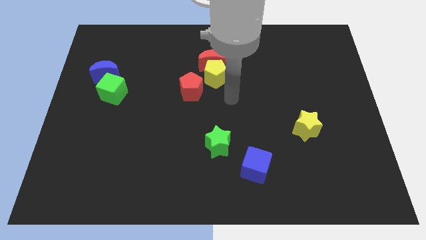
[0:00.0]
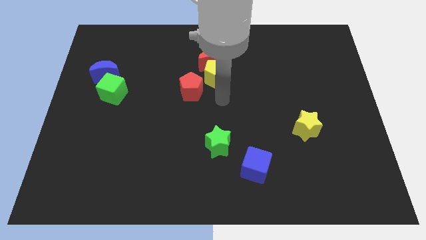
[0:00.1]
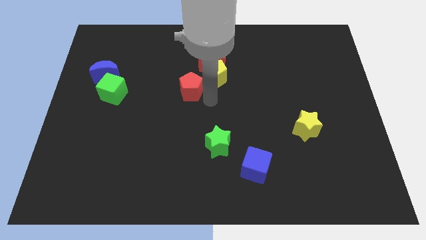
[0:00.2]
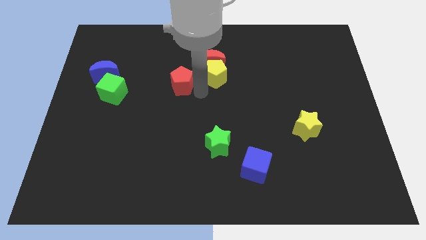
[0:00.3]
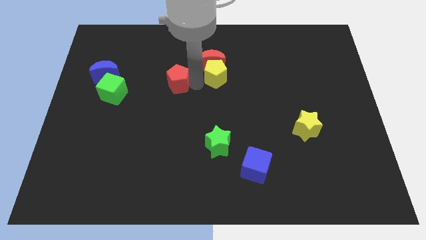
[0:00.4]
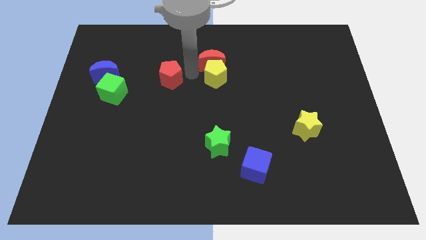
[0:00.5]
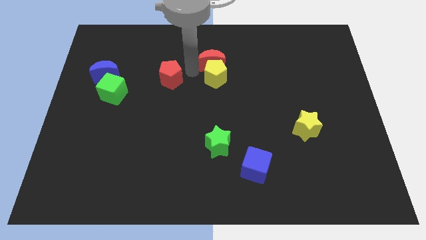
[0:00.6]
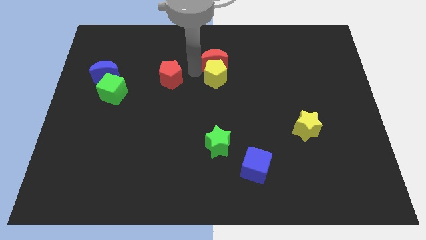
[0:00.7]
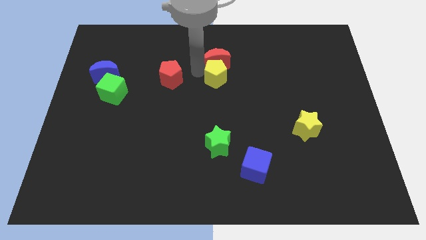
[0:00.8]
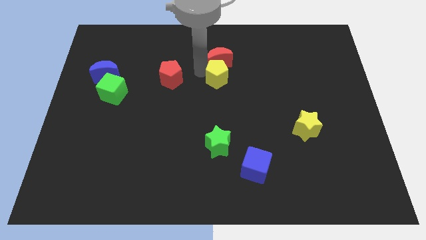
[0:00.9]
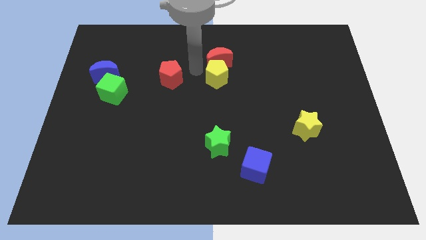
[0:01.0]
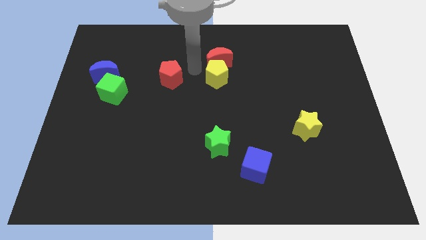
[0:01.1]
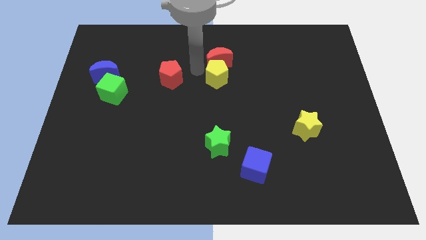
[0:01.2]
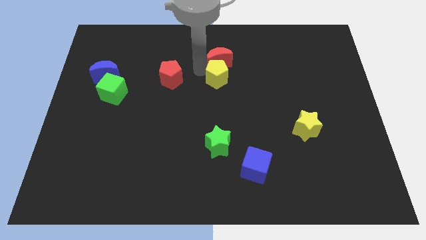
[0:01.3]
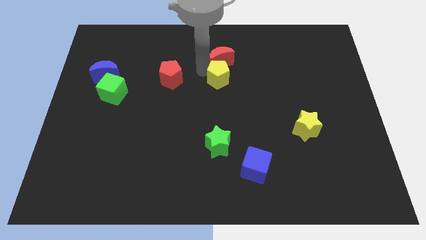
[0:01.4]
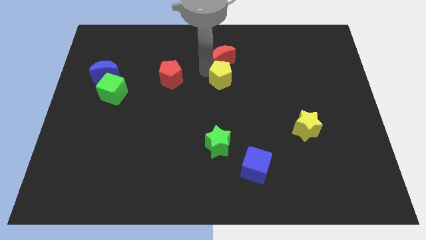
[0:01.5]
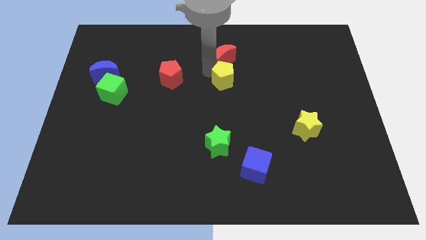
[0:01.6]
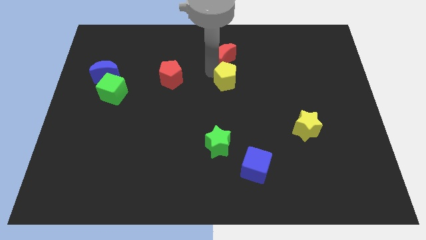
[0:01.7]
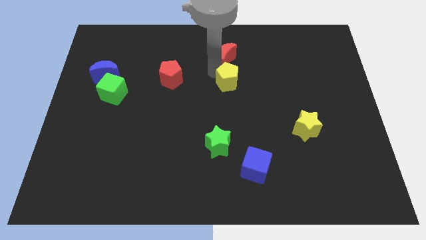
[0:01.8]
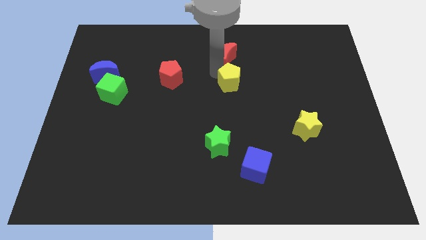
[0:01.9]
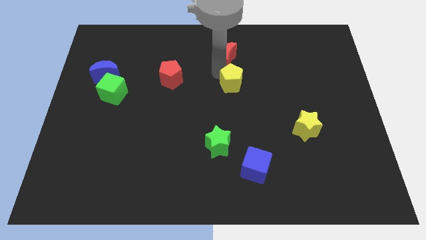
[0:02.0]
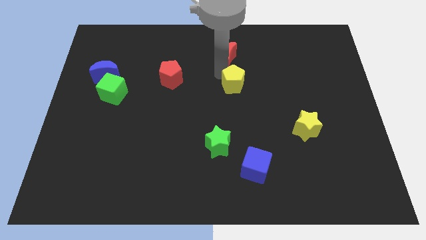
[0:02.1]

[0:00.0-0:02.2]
move the yellow pentagon away from the red moon and red pentagon

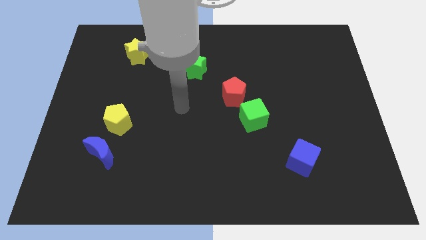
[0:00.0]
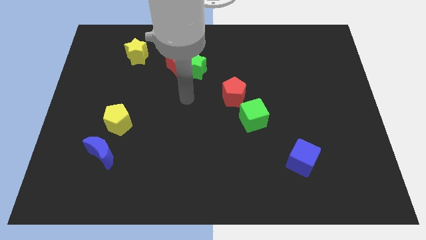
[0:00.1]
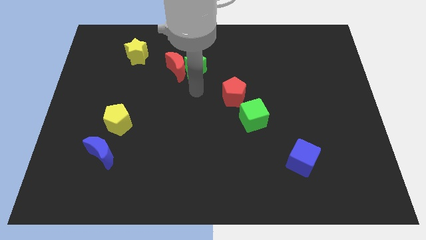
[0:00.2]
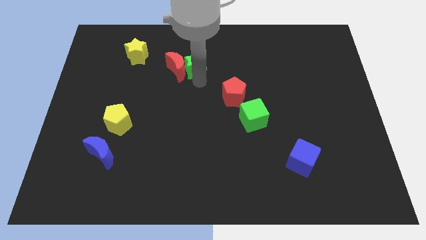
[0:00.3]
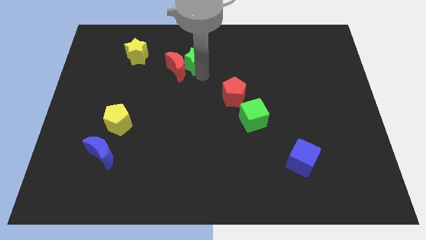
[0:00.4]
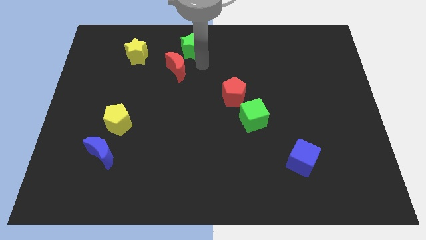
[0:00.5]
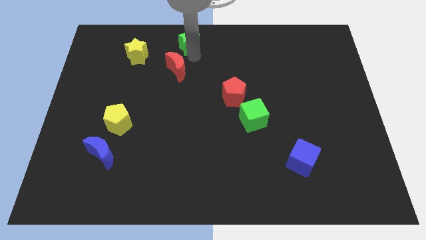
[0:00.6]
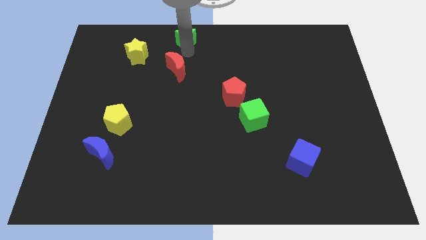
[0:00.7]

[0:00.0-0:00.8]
pull the red moon apart from the green star

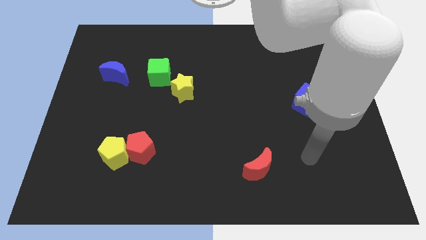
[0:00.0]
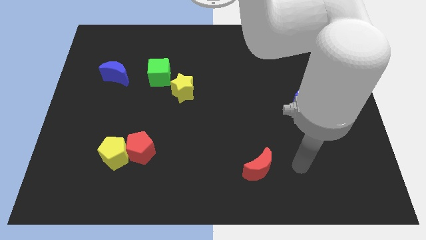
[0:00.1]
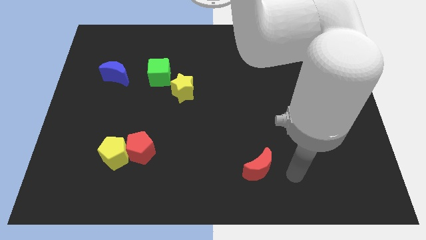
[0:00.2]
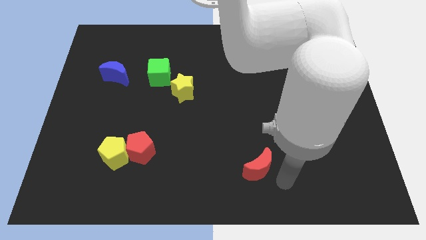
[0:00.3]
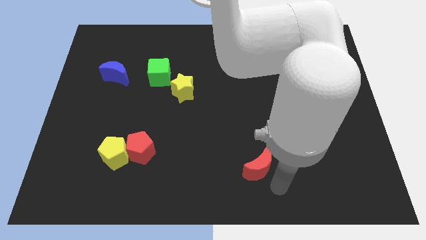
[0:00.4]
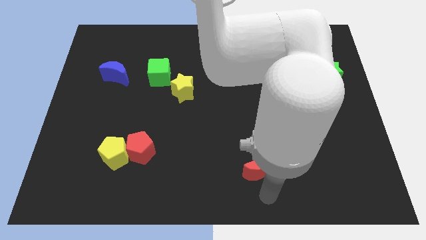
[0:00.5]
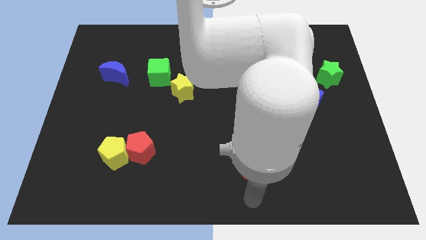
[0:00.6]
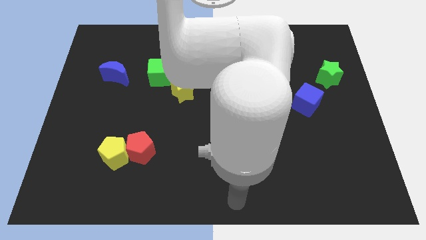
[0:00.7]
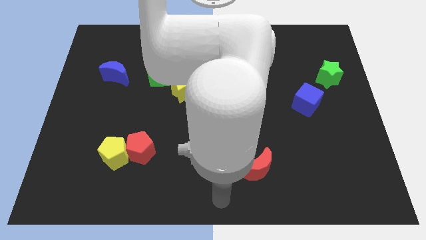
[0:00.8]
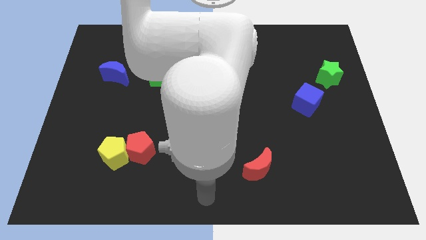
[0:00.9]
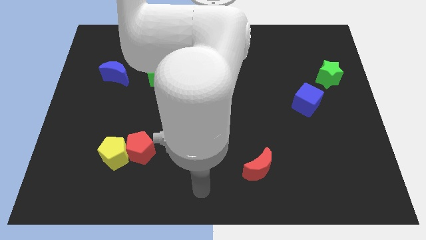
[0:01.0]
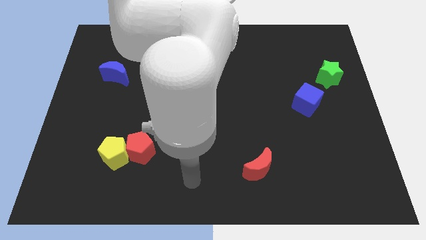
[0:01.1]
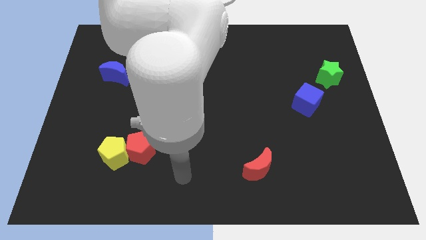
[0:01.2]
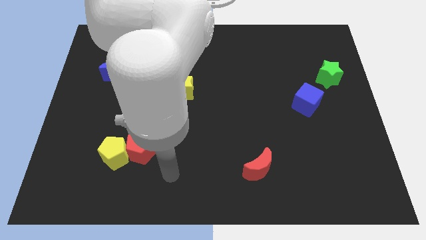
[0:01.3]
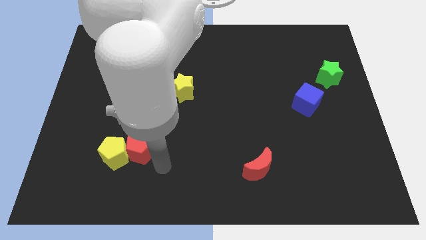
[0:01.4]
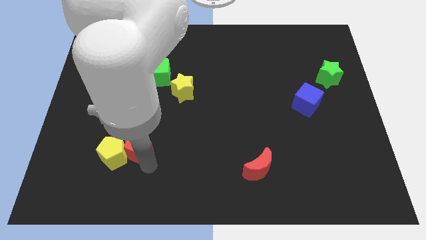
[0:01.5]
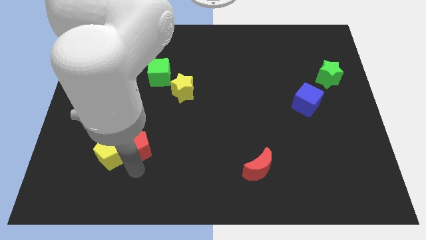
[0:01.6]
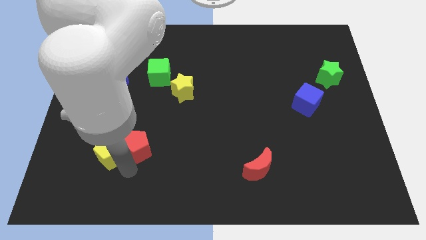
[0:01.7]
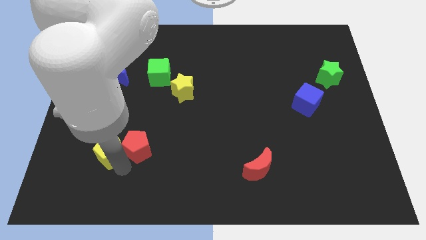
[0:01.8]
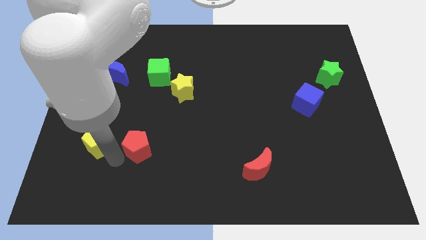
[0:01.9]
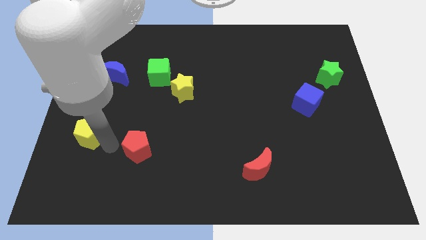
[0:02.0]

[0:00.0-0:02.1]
separate the red pentagon from the yellow pentagon

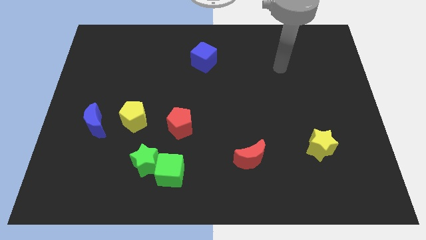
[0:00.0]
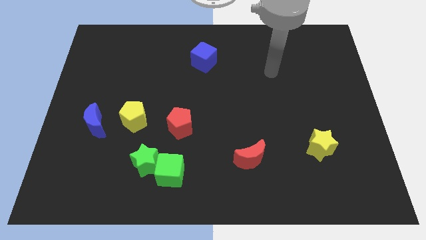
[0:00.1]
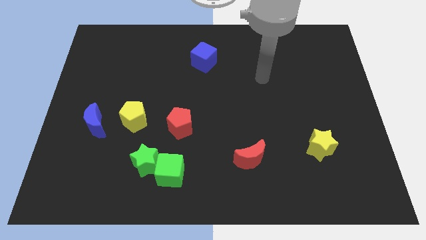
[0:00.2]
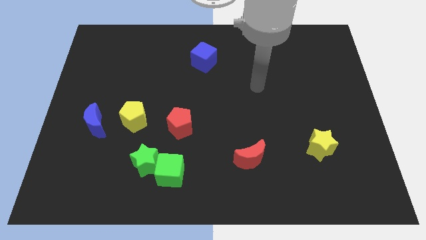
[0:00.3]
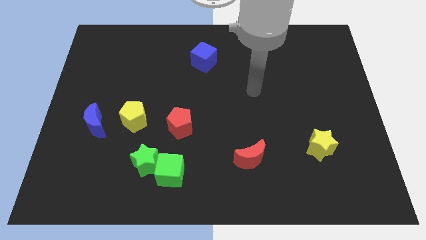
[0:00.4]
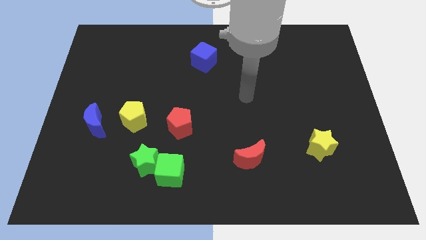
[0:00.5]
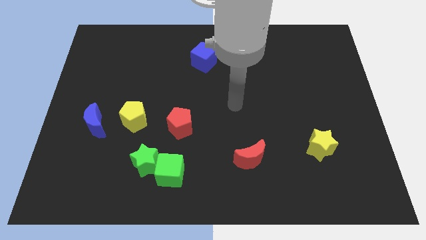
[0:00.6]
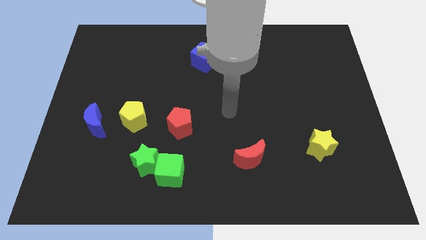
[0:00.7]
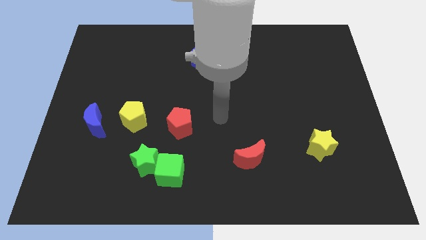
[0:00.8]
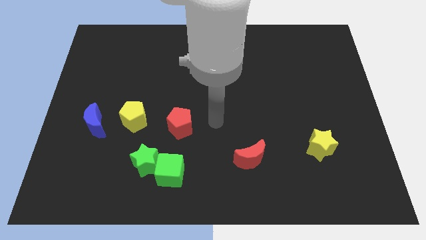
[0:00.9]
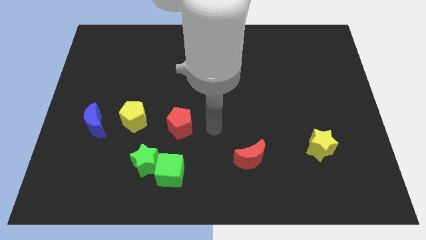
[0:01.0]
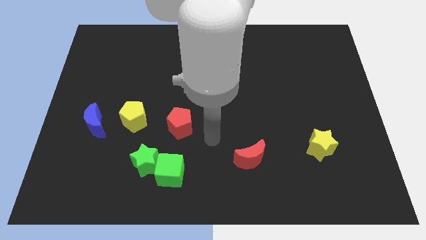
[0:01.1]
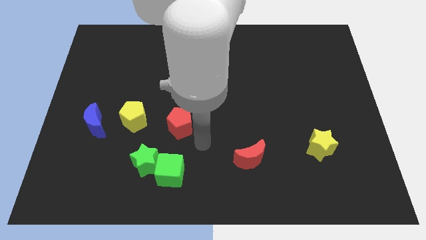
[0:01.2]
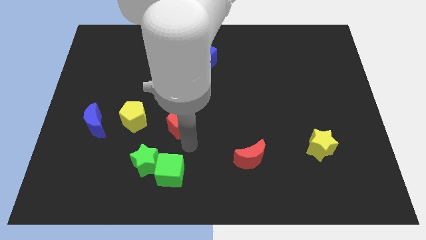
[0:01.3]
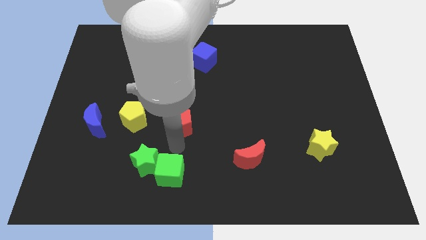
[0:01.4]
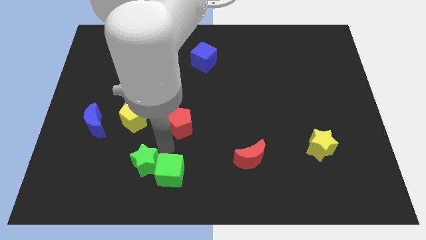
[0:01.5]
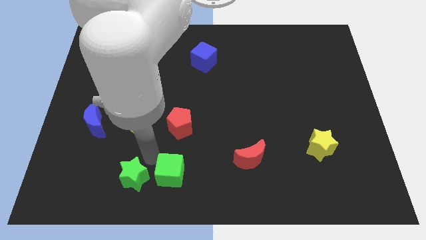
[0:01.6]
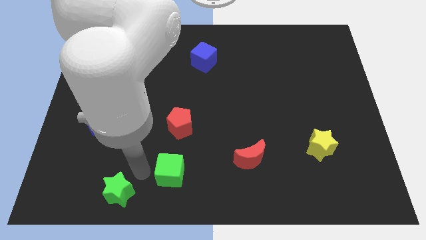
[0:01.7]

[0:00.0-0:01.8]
pull the green cube apart from the green star

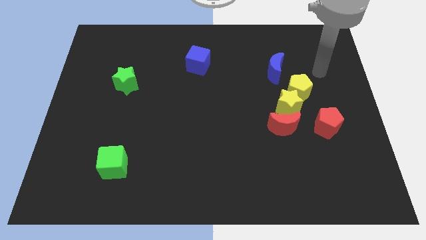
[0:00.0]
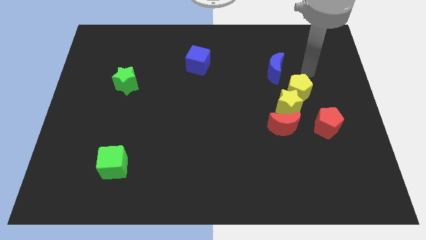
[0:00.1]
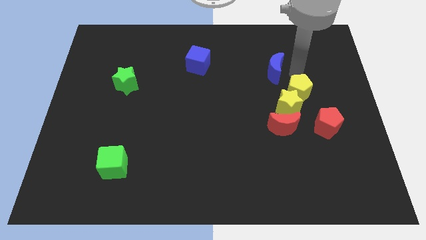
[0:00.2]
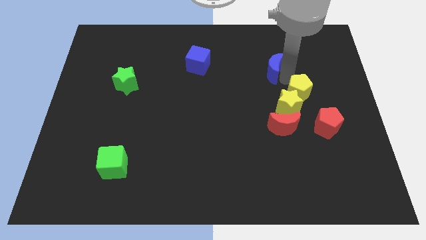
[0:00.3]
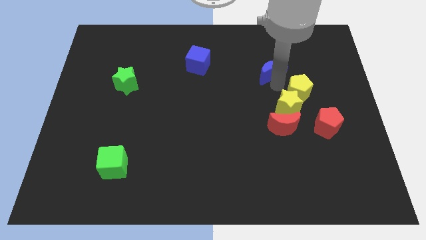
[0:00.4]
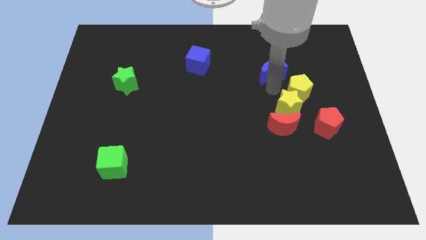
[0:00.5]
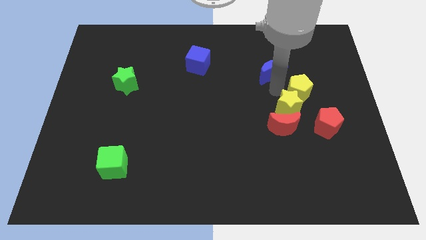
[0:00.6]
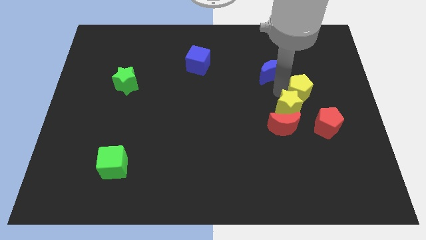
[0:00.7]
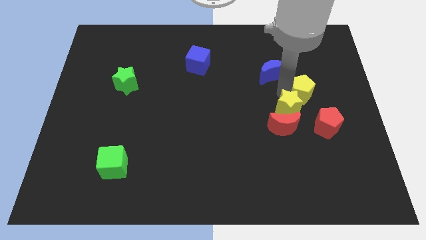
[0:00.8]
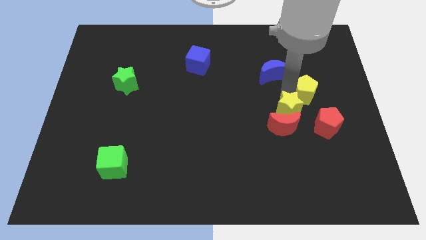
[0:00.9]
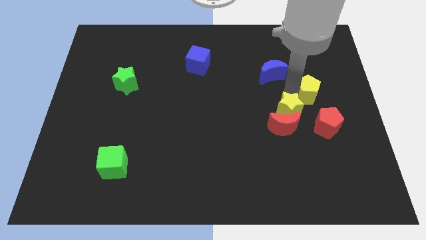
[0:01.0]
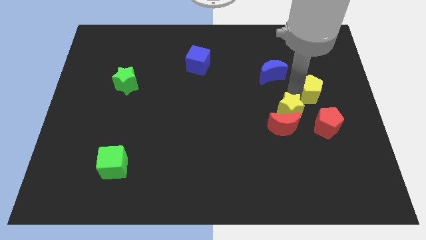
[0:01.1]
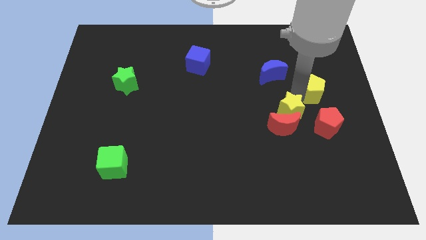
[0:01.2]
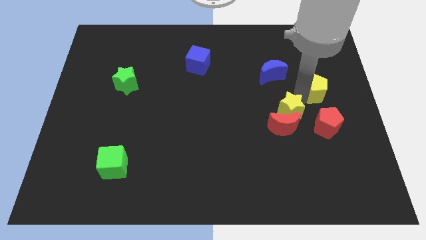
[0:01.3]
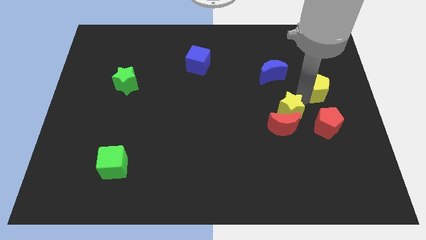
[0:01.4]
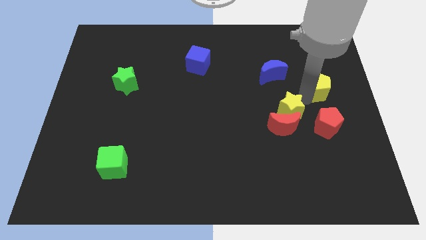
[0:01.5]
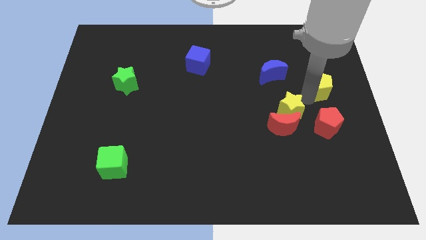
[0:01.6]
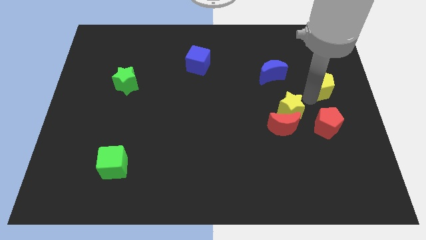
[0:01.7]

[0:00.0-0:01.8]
move the yellow pentagon away from the yellow star and blue moon

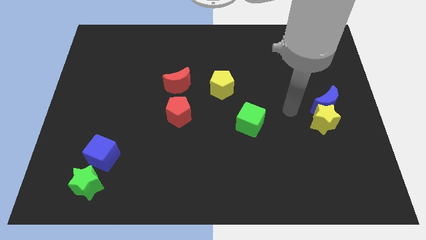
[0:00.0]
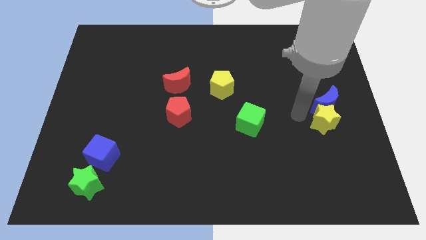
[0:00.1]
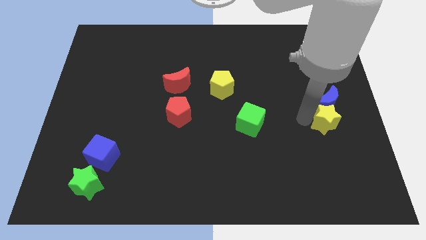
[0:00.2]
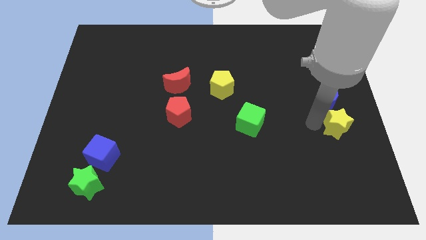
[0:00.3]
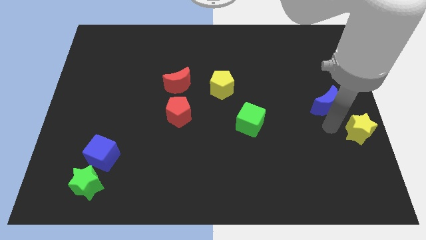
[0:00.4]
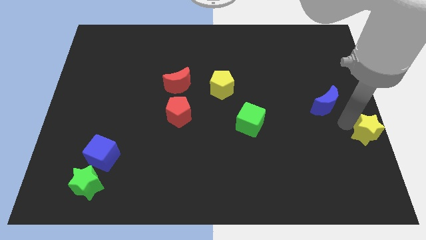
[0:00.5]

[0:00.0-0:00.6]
pull the blue moon apart from the yellow star
